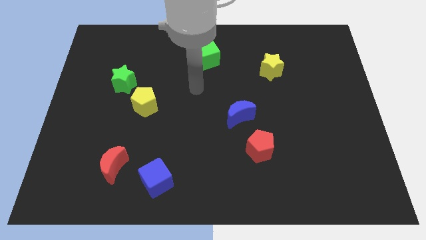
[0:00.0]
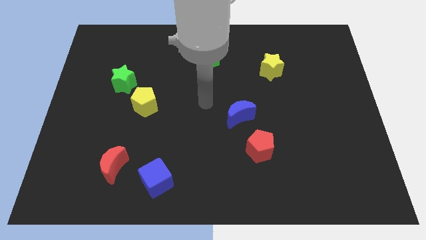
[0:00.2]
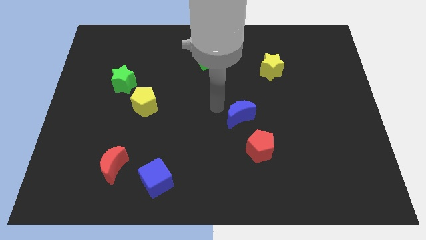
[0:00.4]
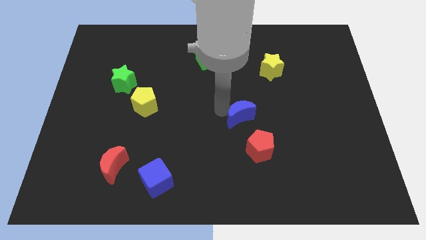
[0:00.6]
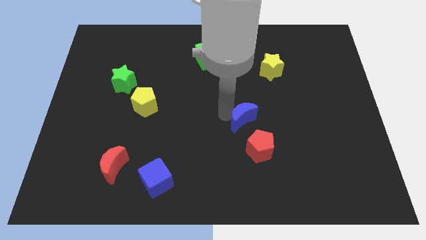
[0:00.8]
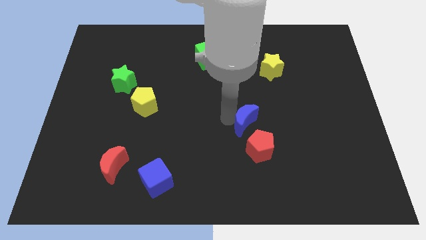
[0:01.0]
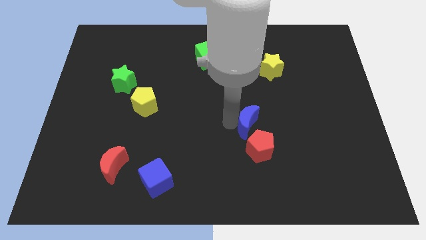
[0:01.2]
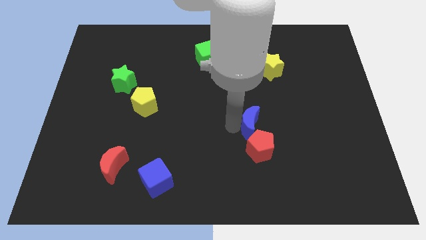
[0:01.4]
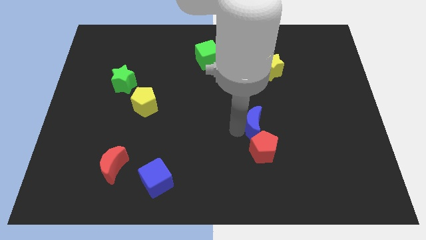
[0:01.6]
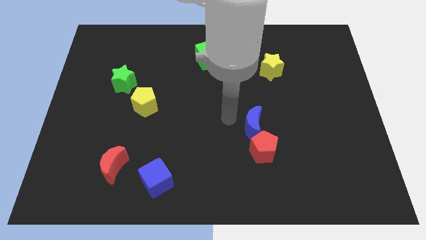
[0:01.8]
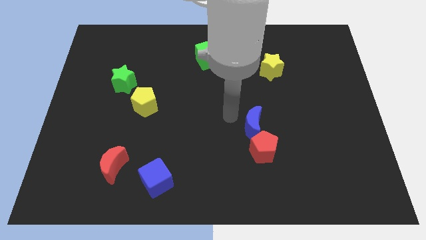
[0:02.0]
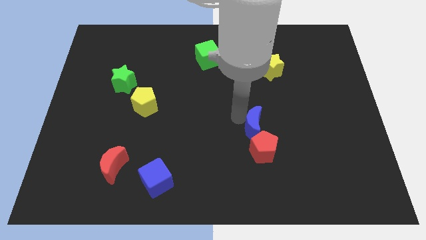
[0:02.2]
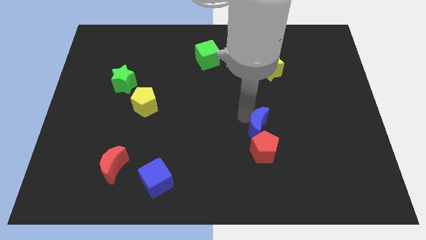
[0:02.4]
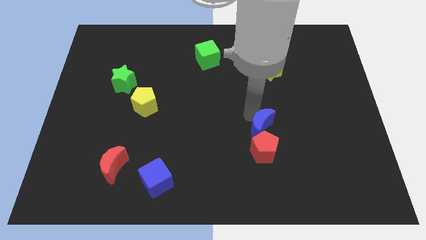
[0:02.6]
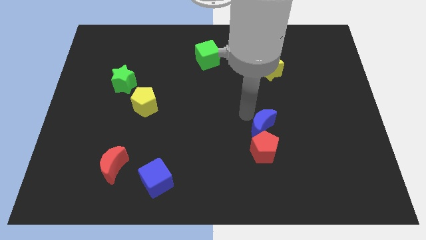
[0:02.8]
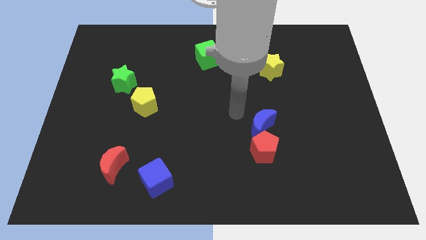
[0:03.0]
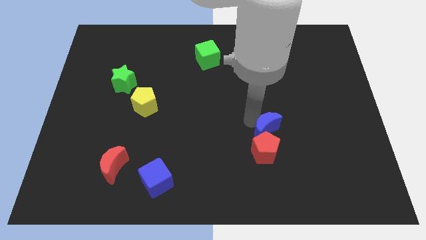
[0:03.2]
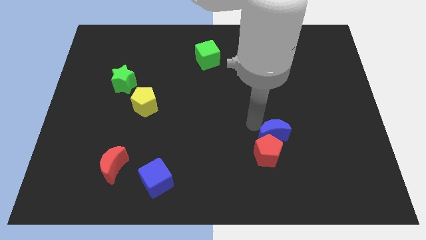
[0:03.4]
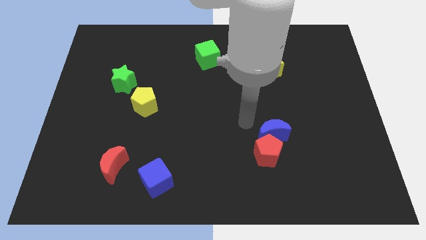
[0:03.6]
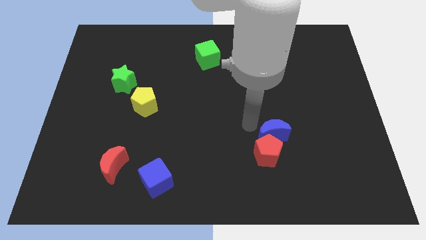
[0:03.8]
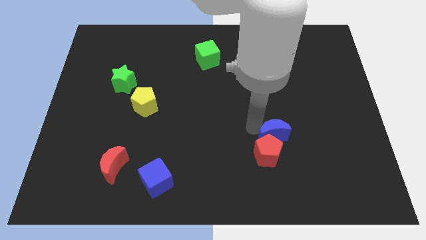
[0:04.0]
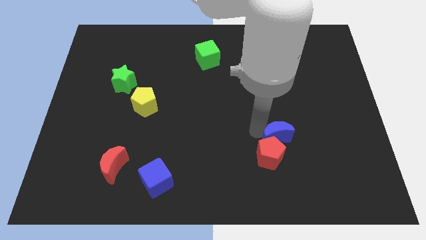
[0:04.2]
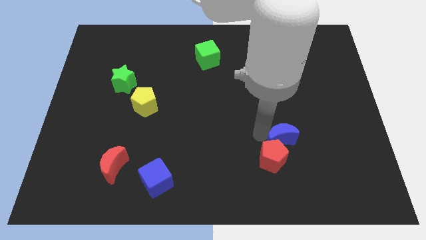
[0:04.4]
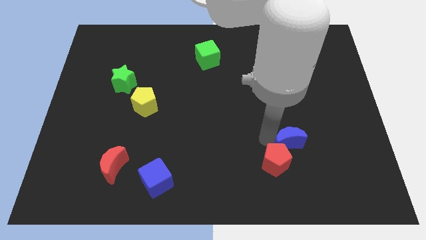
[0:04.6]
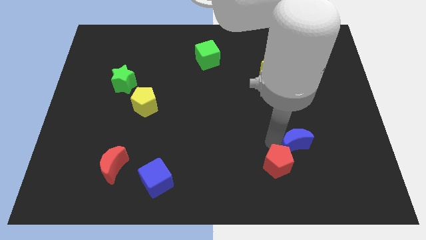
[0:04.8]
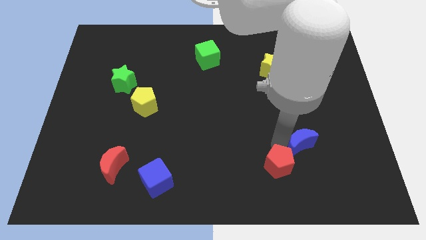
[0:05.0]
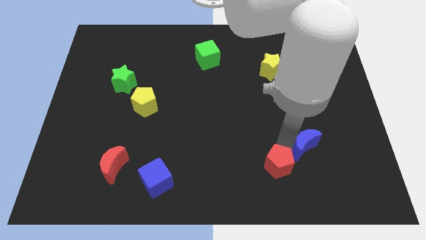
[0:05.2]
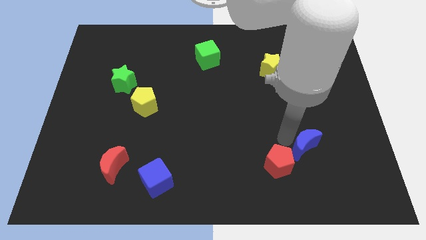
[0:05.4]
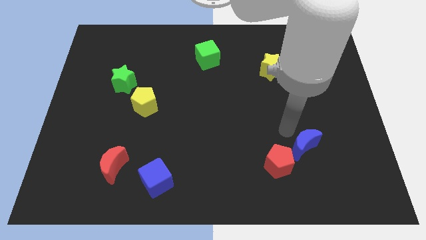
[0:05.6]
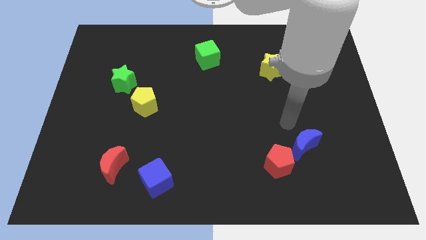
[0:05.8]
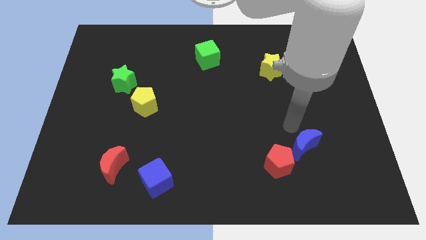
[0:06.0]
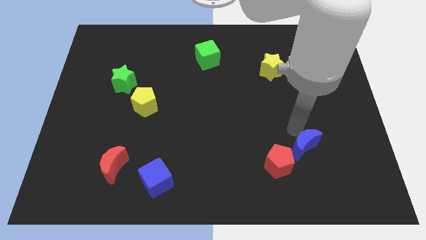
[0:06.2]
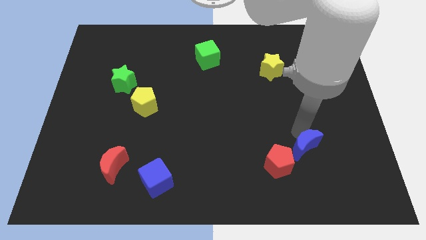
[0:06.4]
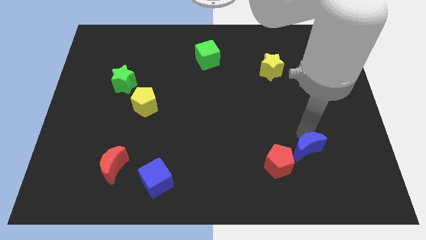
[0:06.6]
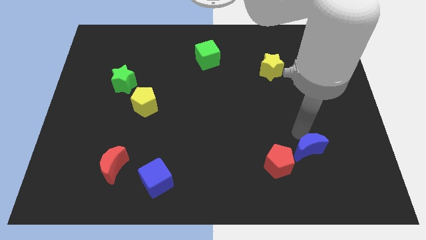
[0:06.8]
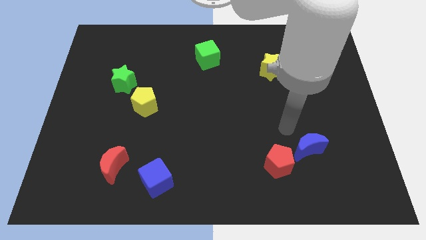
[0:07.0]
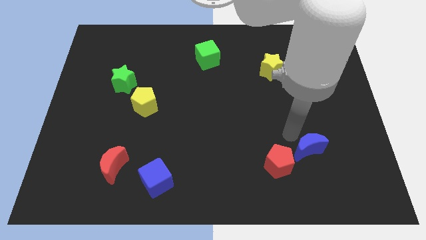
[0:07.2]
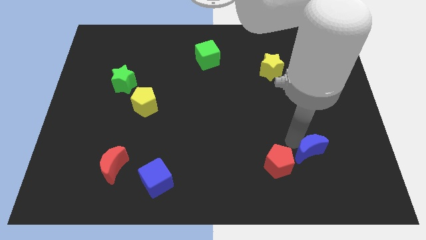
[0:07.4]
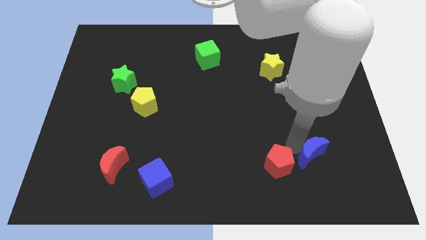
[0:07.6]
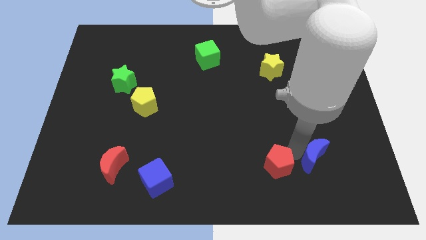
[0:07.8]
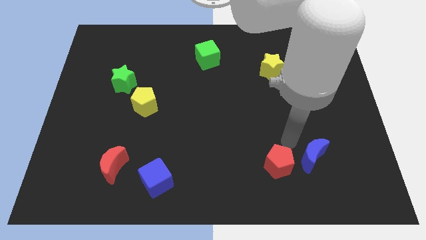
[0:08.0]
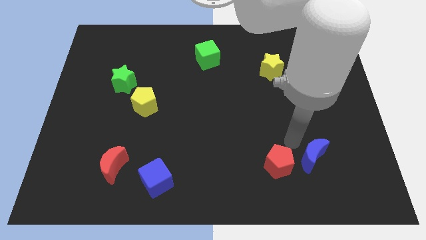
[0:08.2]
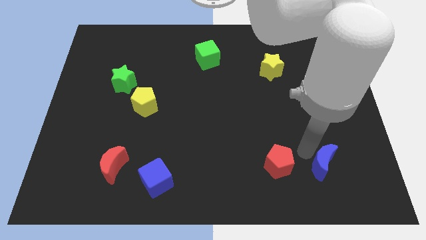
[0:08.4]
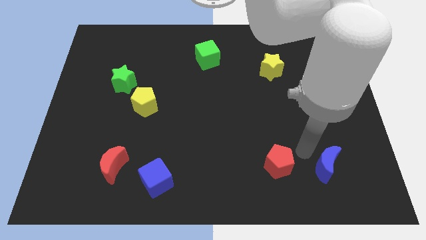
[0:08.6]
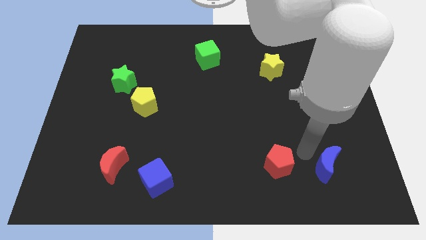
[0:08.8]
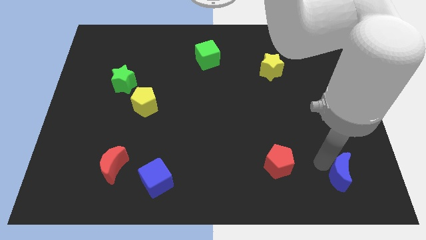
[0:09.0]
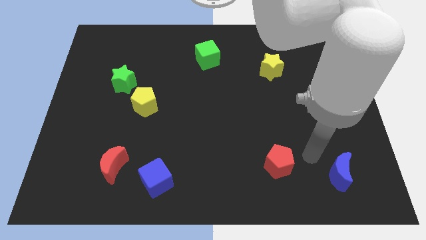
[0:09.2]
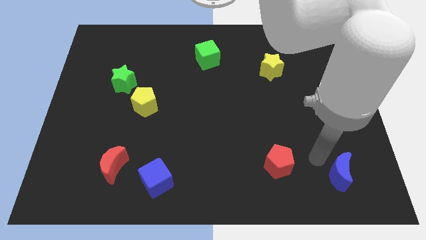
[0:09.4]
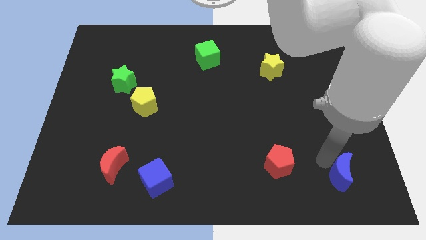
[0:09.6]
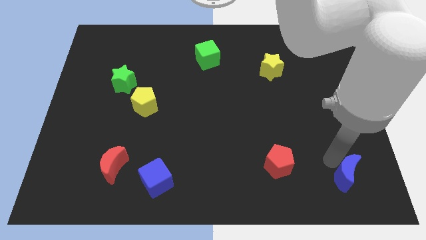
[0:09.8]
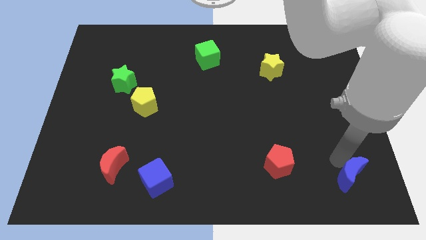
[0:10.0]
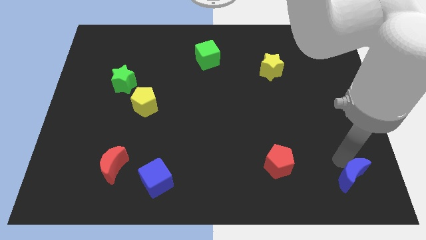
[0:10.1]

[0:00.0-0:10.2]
push the blue moon to the lower right corner

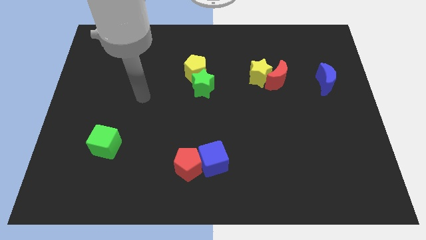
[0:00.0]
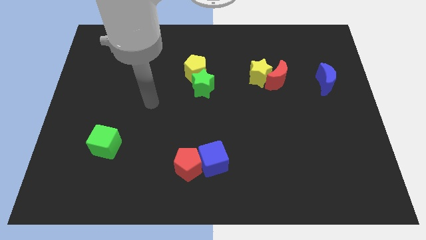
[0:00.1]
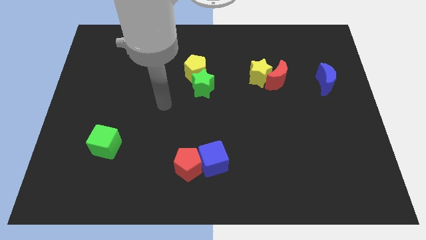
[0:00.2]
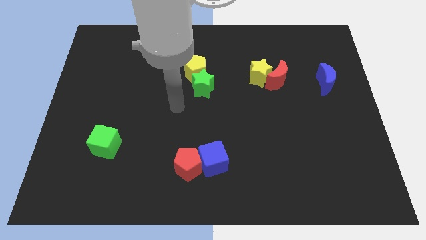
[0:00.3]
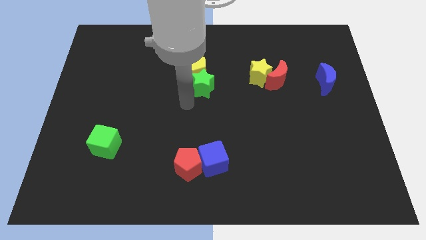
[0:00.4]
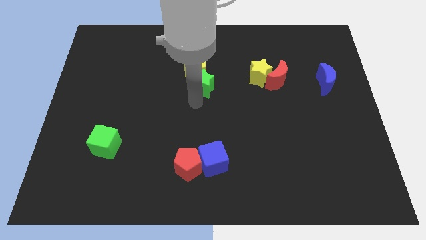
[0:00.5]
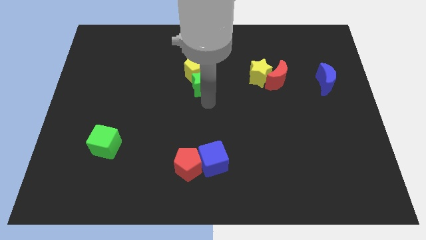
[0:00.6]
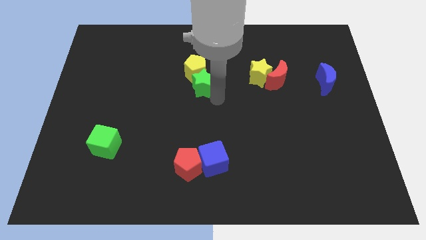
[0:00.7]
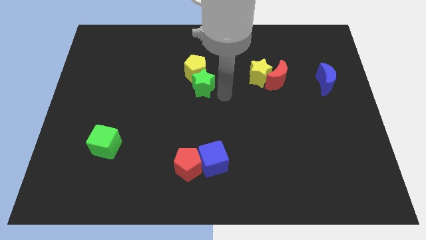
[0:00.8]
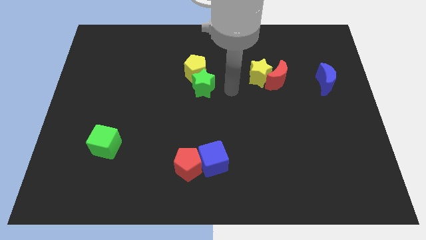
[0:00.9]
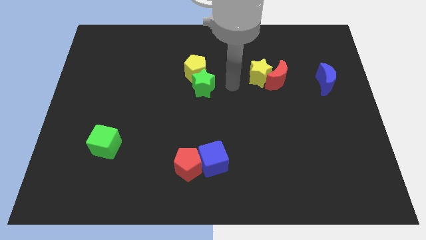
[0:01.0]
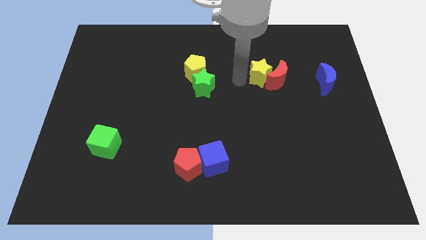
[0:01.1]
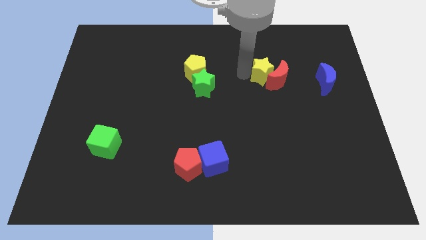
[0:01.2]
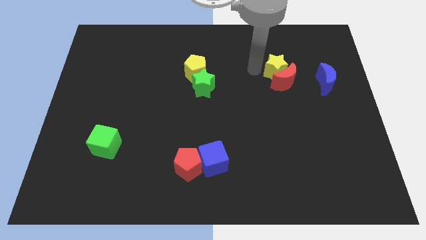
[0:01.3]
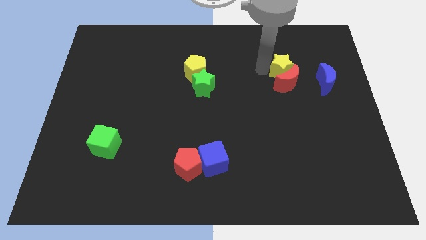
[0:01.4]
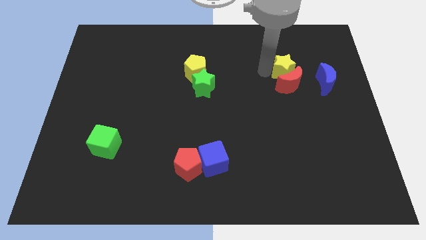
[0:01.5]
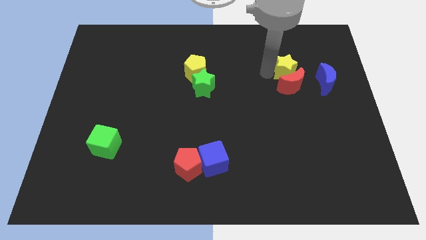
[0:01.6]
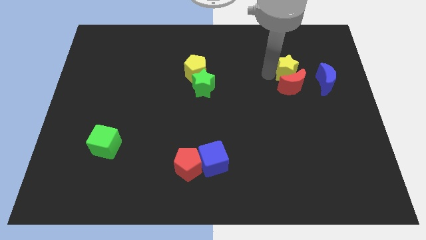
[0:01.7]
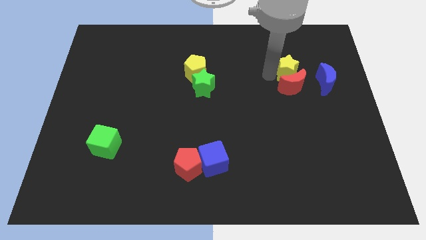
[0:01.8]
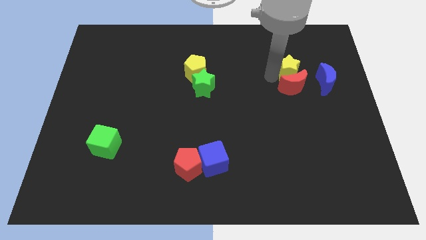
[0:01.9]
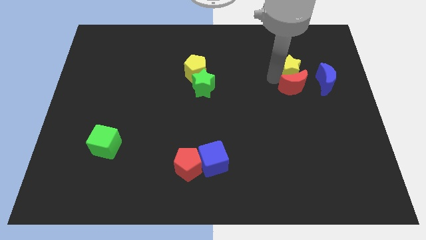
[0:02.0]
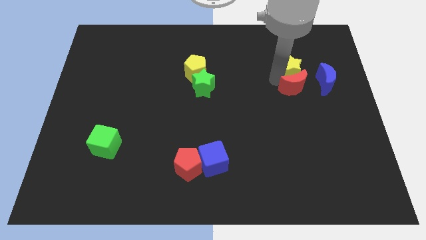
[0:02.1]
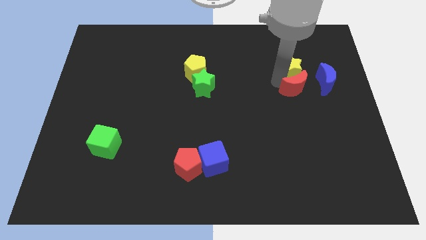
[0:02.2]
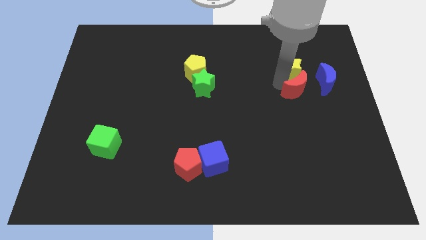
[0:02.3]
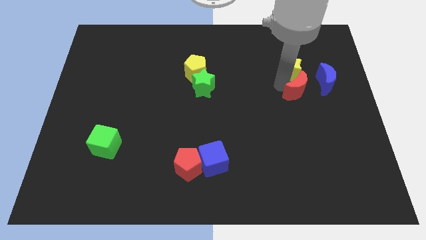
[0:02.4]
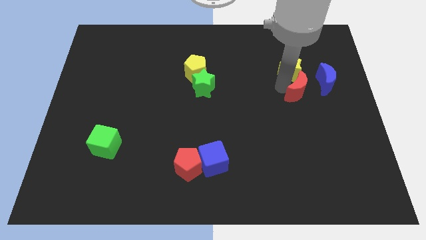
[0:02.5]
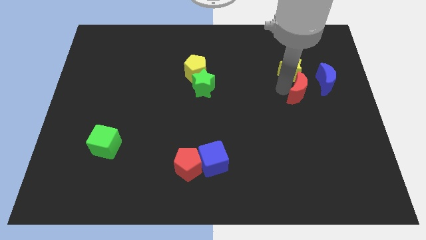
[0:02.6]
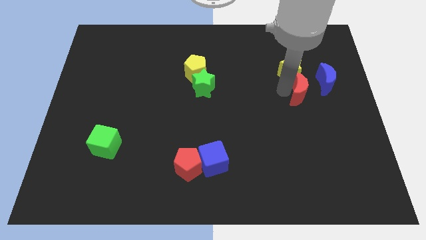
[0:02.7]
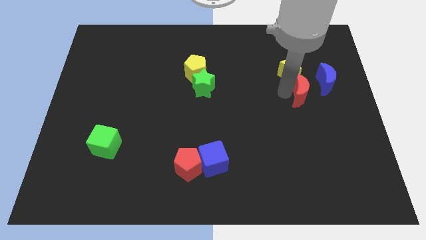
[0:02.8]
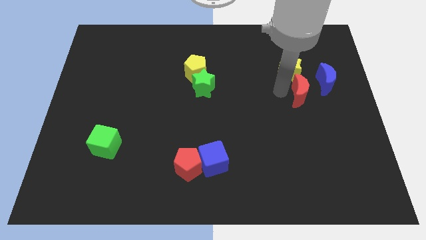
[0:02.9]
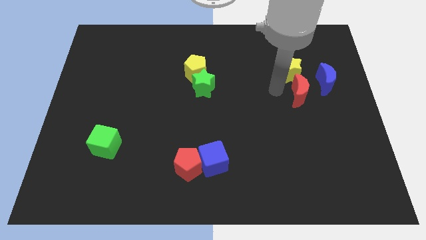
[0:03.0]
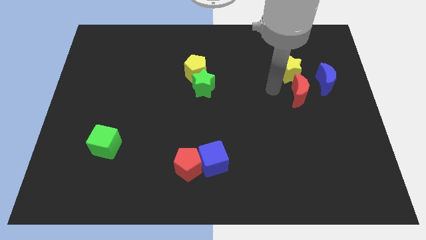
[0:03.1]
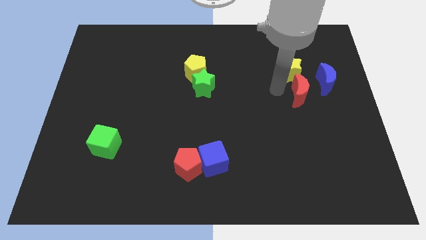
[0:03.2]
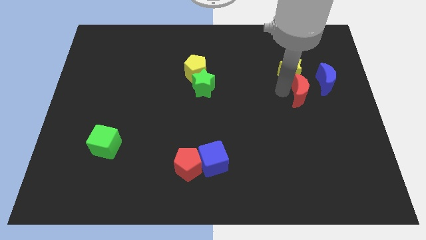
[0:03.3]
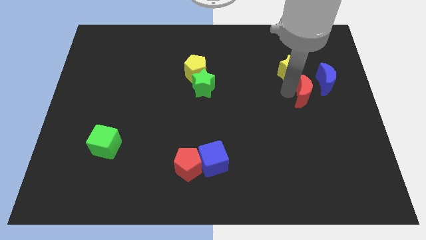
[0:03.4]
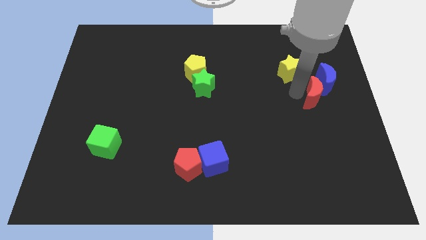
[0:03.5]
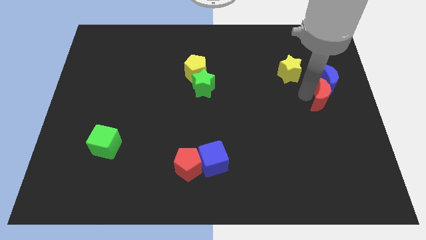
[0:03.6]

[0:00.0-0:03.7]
push the red moon to the center right
